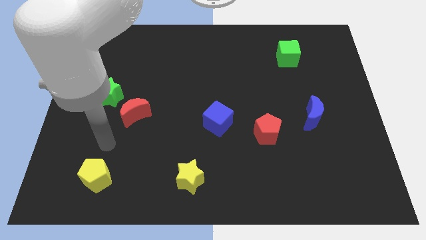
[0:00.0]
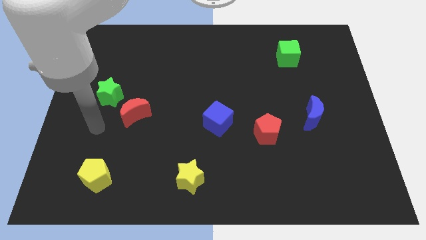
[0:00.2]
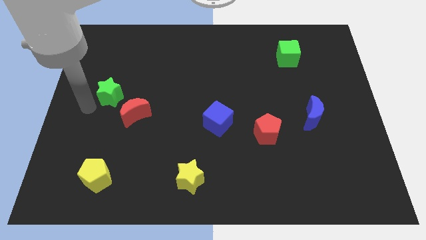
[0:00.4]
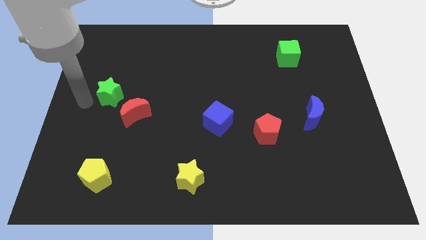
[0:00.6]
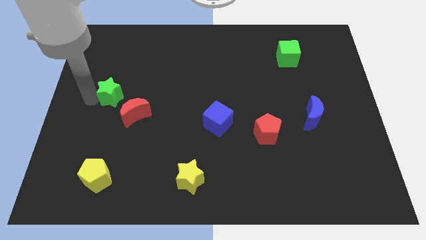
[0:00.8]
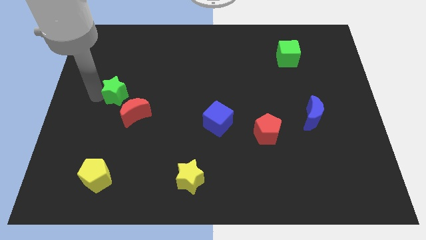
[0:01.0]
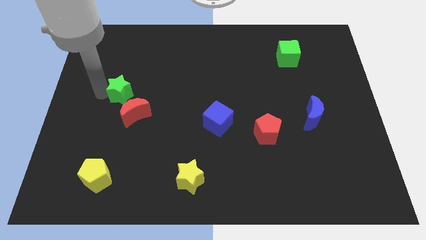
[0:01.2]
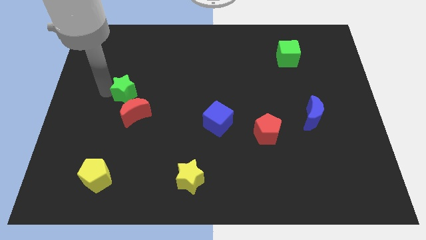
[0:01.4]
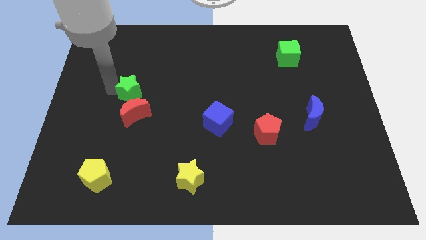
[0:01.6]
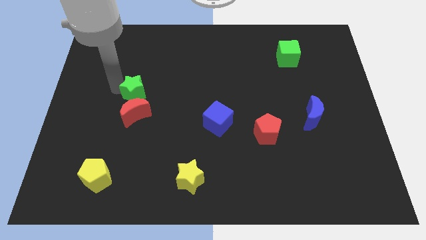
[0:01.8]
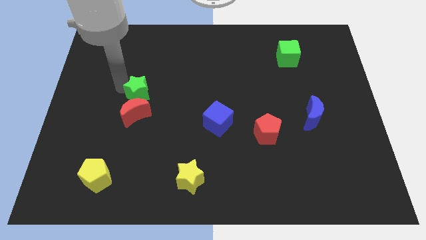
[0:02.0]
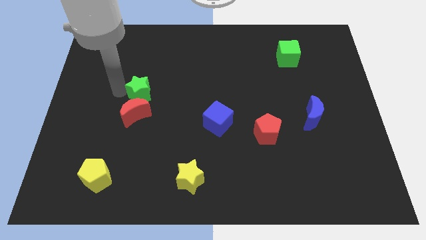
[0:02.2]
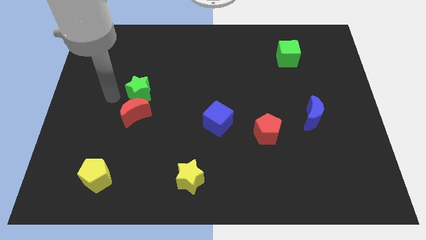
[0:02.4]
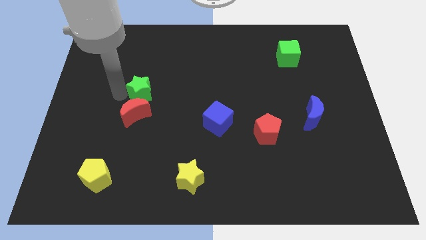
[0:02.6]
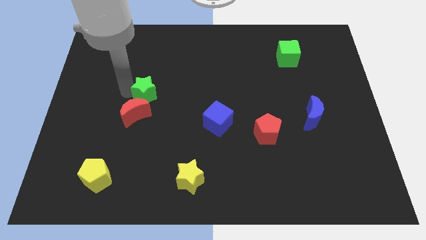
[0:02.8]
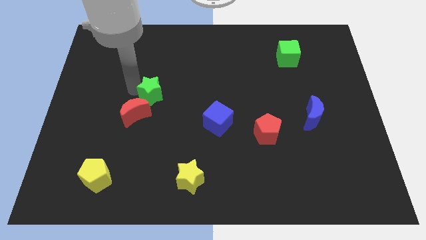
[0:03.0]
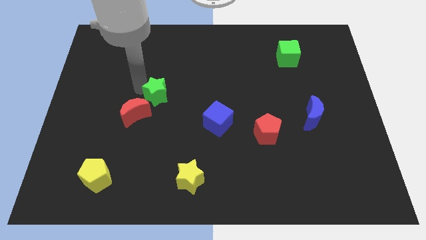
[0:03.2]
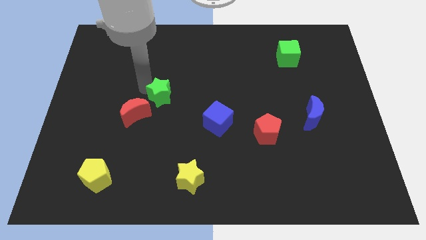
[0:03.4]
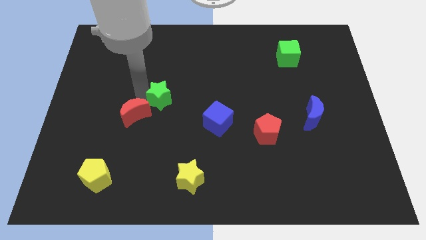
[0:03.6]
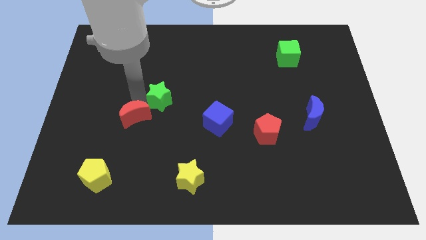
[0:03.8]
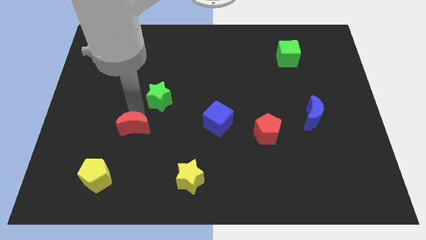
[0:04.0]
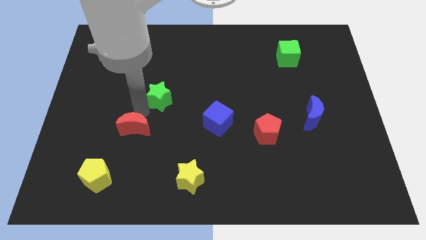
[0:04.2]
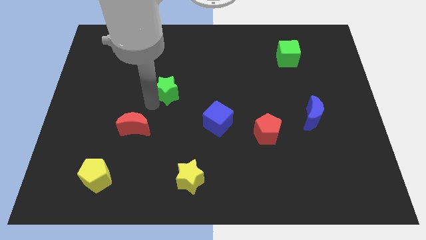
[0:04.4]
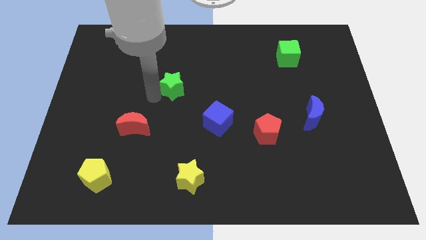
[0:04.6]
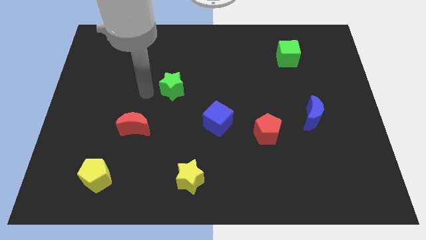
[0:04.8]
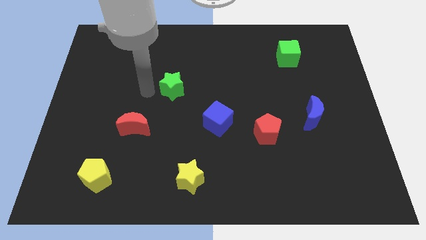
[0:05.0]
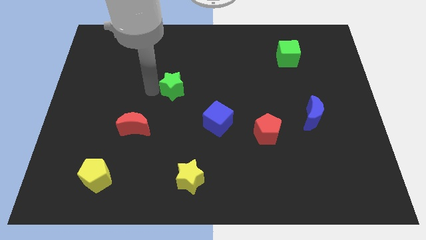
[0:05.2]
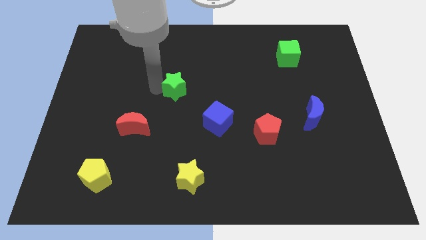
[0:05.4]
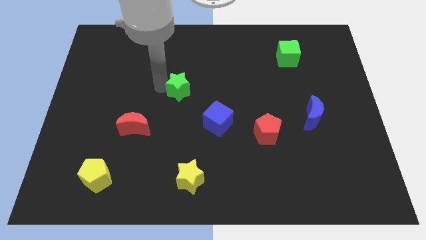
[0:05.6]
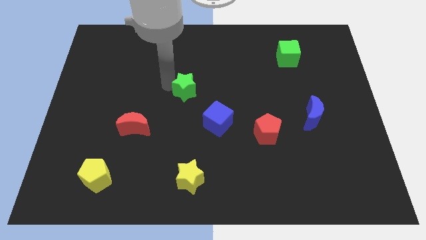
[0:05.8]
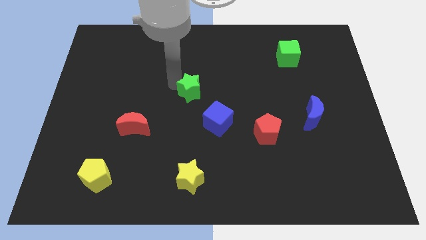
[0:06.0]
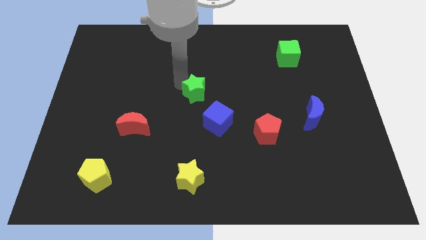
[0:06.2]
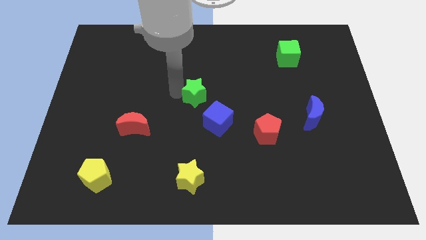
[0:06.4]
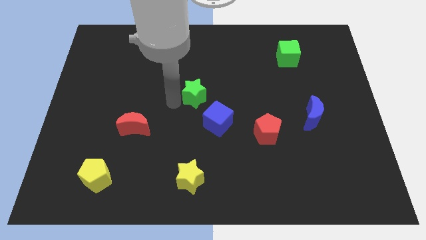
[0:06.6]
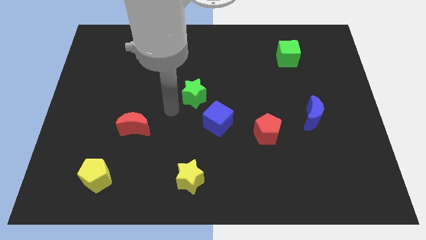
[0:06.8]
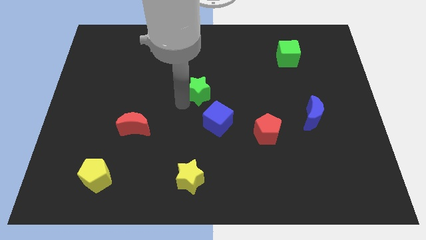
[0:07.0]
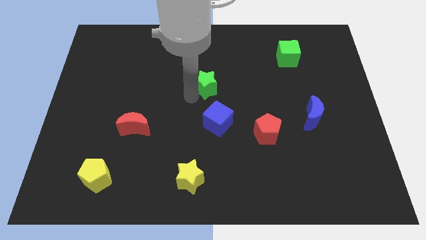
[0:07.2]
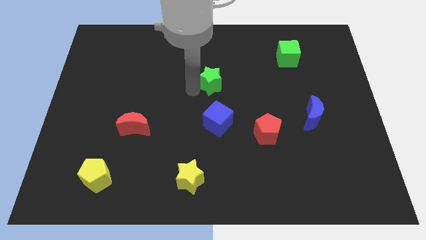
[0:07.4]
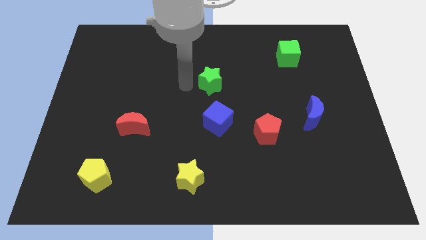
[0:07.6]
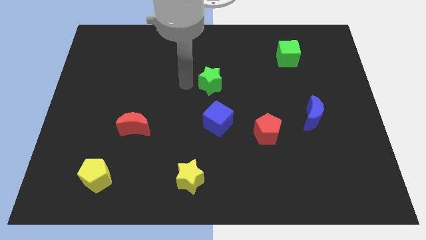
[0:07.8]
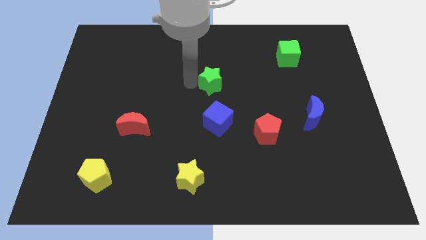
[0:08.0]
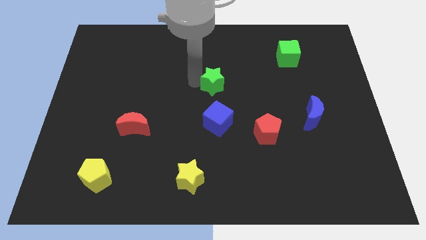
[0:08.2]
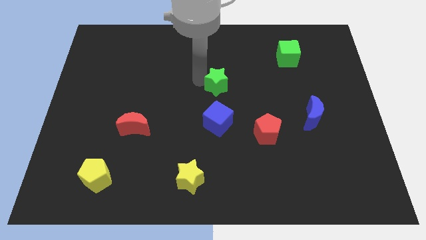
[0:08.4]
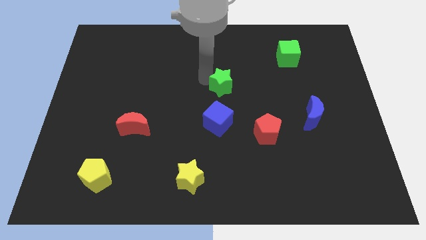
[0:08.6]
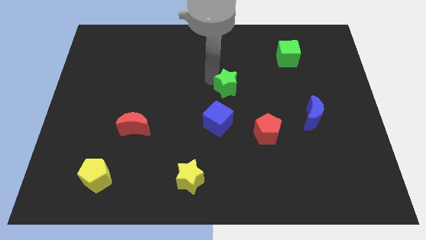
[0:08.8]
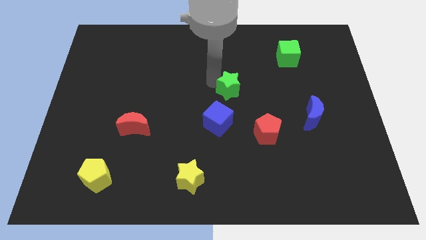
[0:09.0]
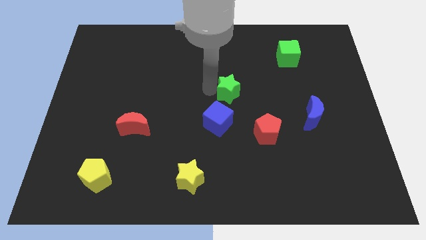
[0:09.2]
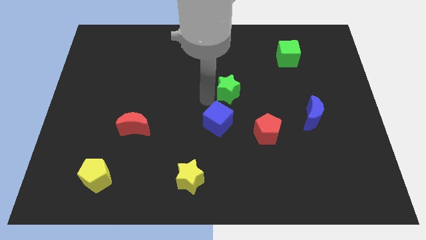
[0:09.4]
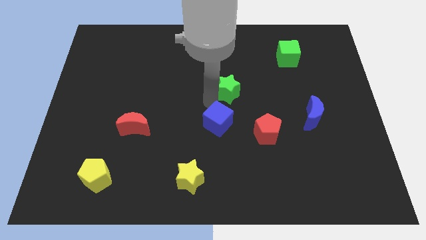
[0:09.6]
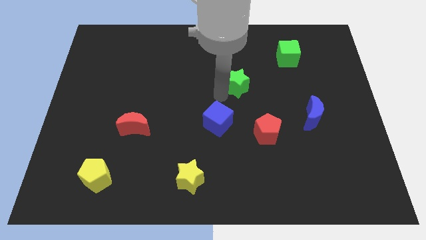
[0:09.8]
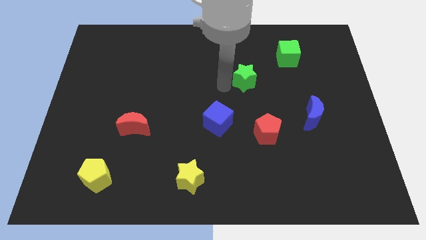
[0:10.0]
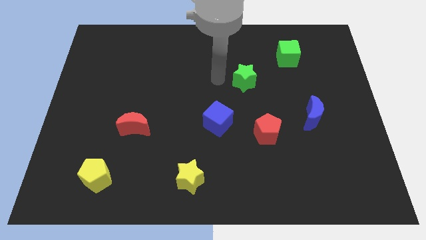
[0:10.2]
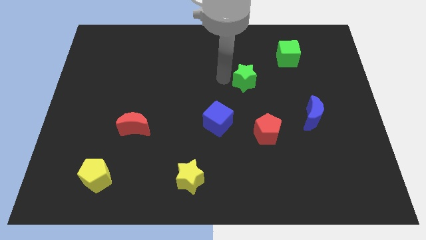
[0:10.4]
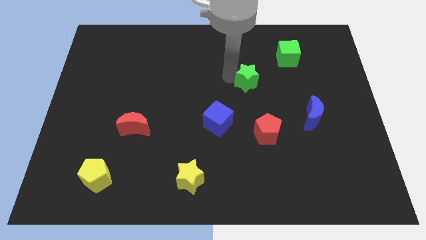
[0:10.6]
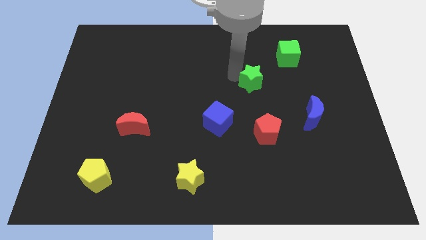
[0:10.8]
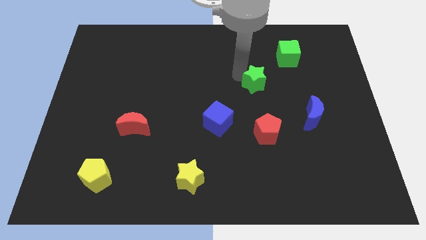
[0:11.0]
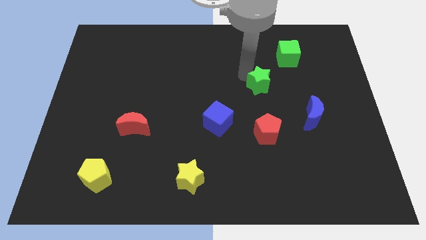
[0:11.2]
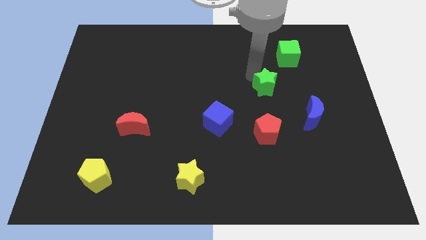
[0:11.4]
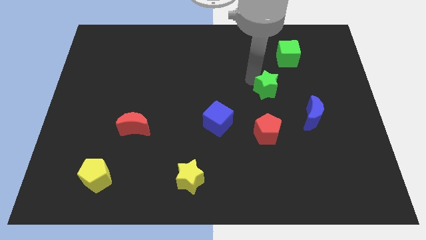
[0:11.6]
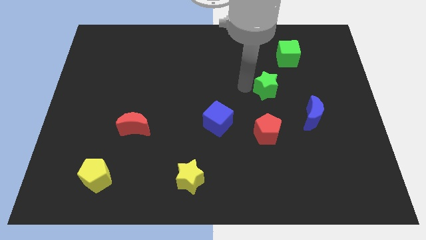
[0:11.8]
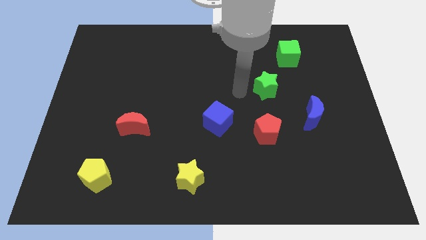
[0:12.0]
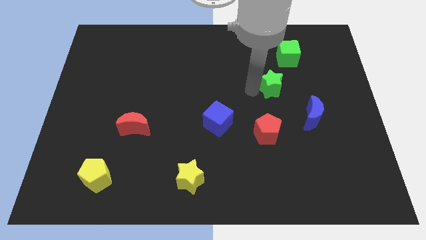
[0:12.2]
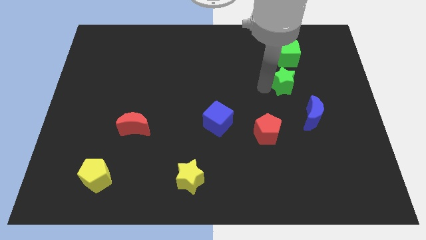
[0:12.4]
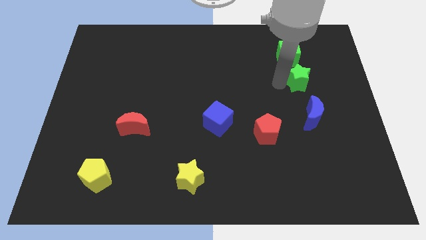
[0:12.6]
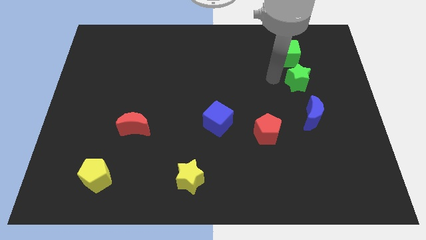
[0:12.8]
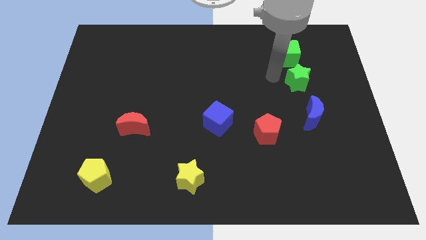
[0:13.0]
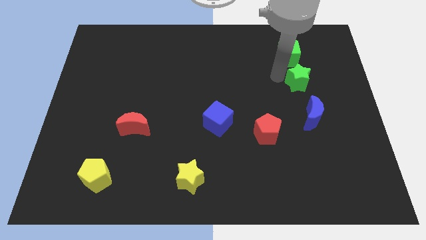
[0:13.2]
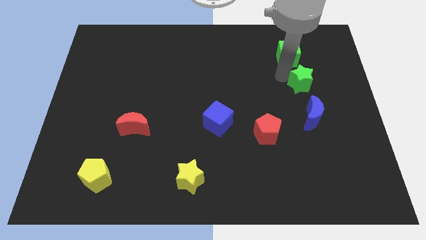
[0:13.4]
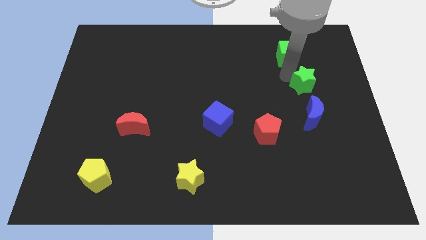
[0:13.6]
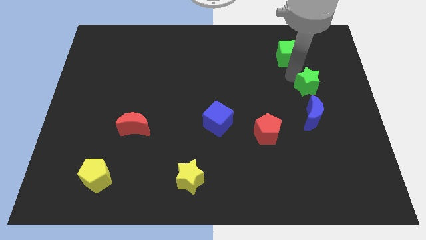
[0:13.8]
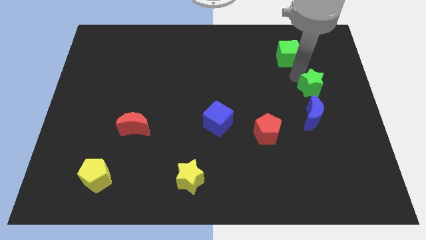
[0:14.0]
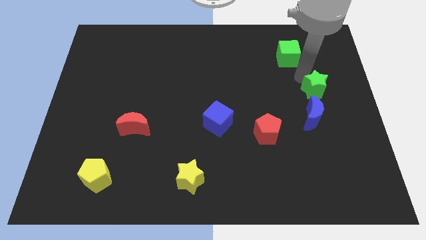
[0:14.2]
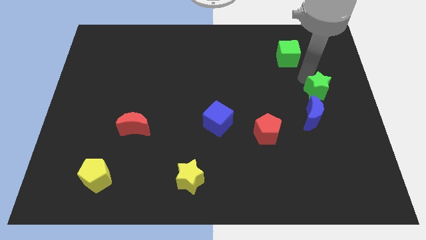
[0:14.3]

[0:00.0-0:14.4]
put the green star to the right side of the board
